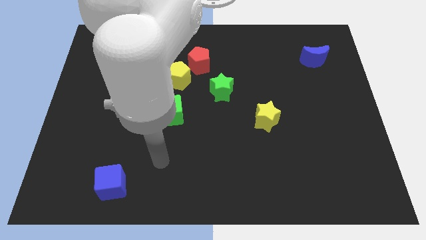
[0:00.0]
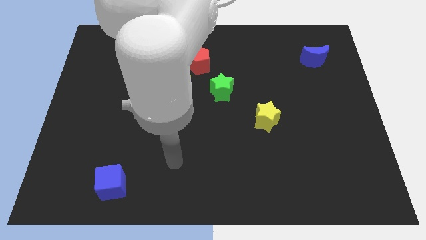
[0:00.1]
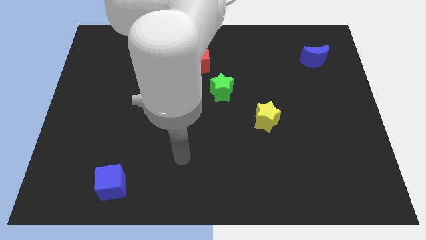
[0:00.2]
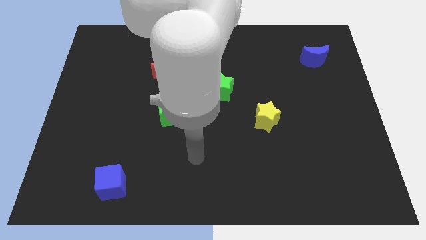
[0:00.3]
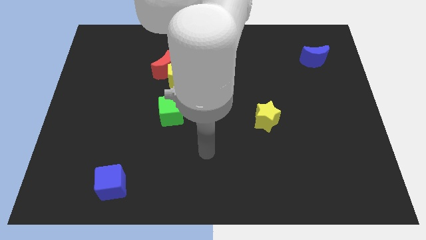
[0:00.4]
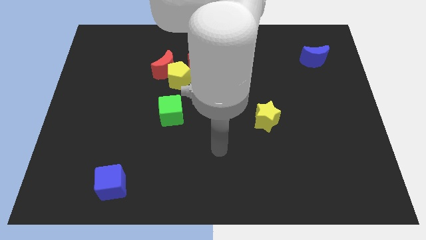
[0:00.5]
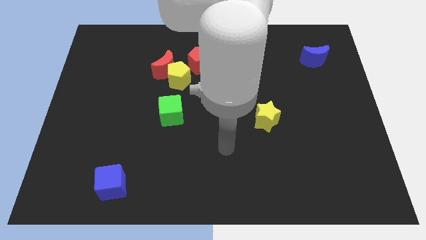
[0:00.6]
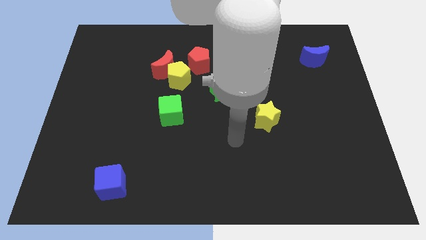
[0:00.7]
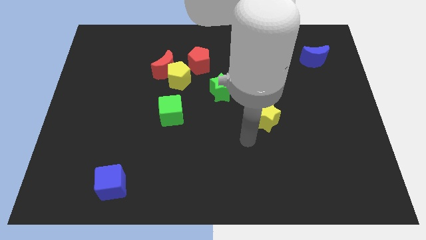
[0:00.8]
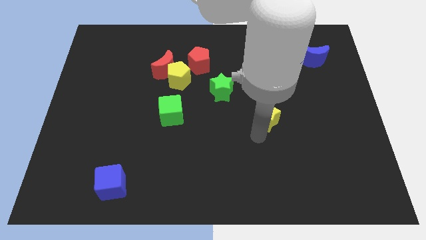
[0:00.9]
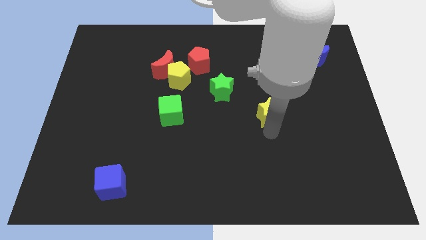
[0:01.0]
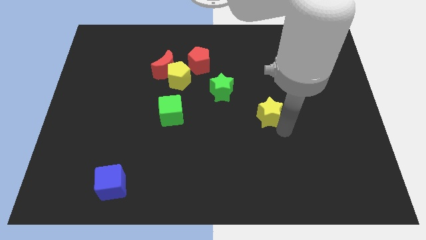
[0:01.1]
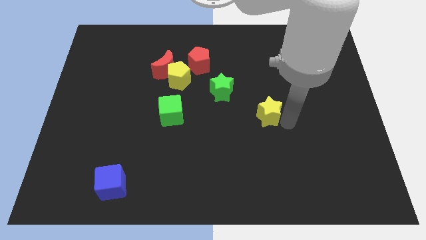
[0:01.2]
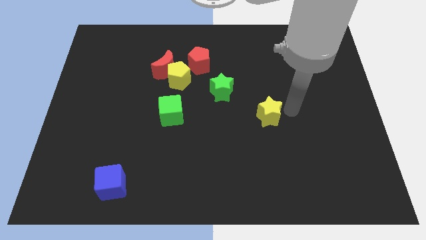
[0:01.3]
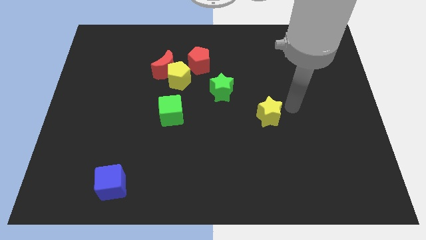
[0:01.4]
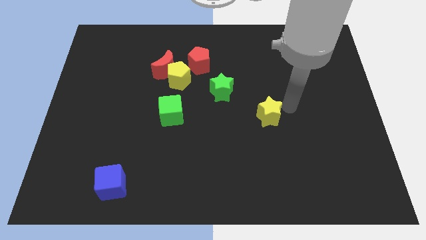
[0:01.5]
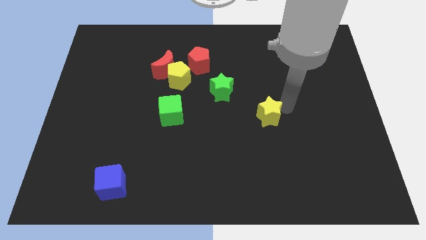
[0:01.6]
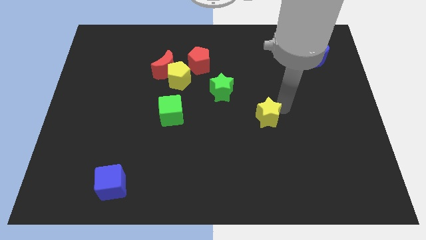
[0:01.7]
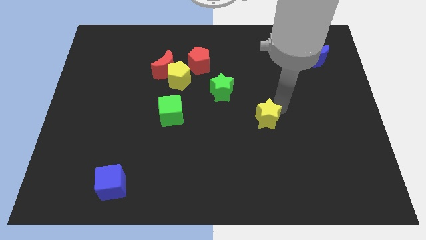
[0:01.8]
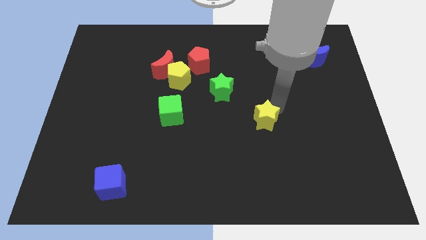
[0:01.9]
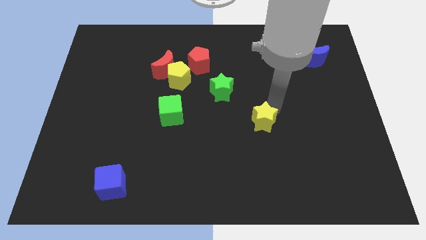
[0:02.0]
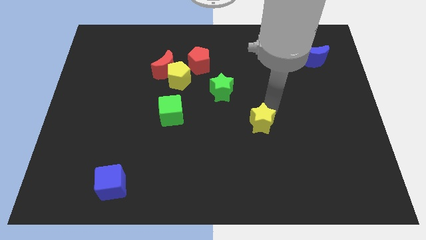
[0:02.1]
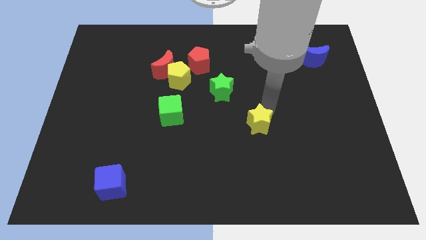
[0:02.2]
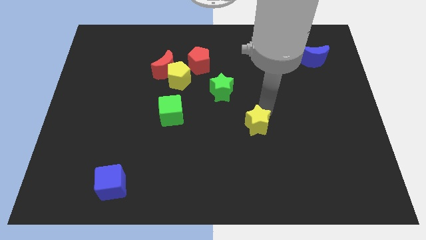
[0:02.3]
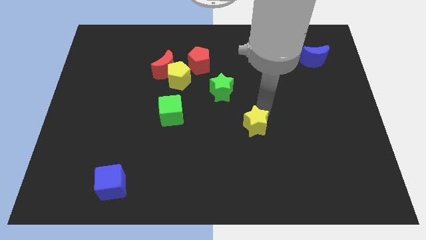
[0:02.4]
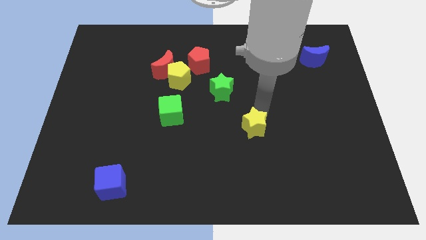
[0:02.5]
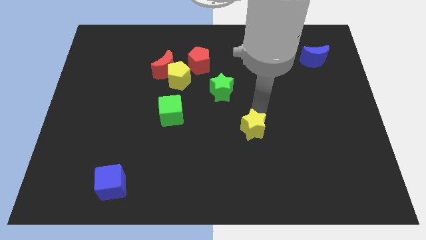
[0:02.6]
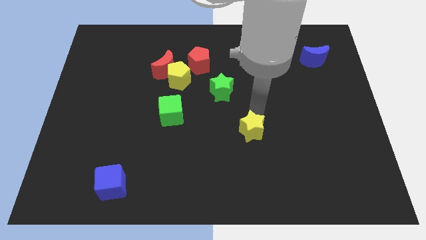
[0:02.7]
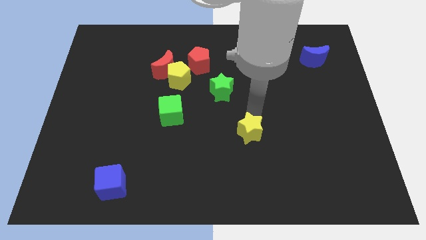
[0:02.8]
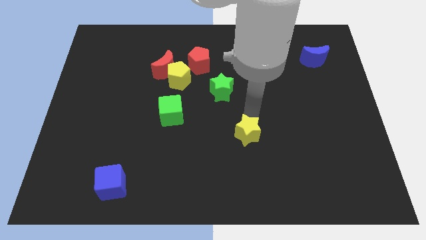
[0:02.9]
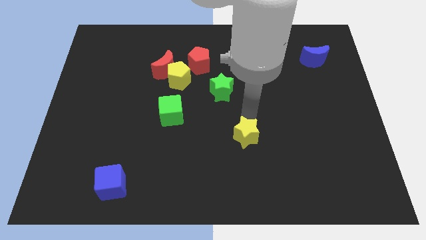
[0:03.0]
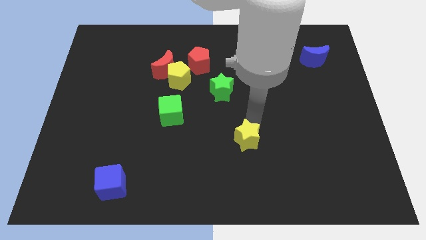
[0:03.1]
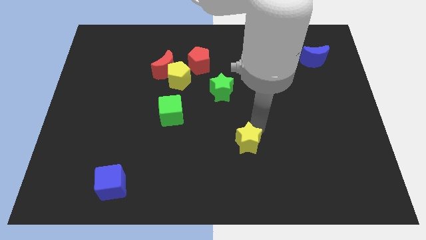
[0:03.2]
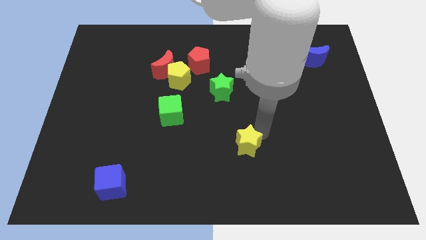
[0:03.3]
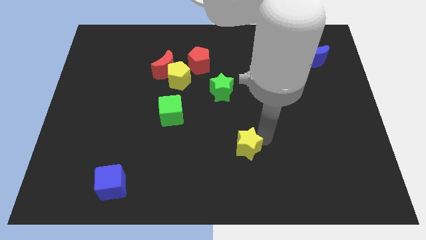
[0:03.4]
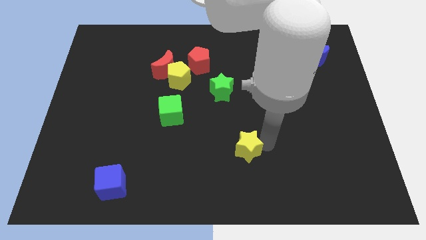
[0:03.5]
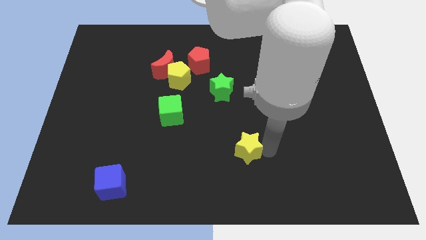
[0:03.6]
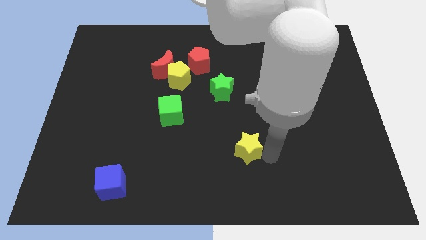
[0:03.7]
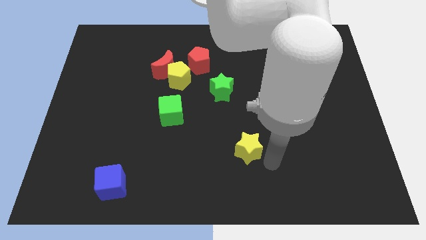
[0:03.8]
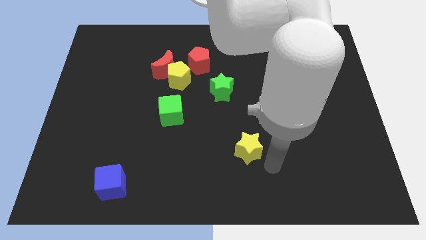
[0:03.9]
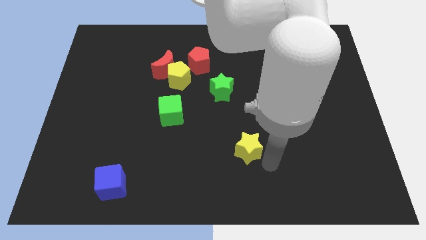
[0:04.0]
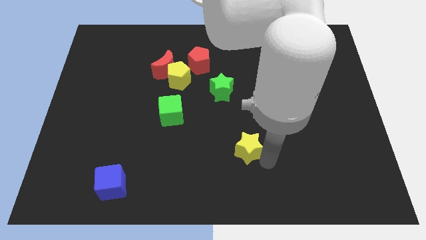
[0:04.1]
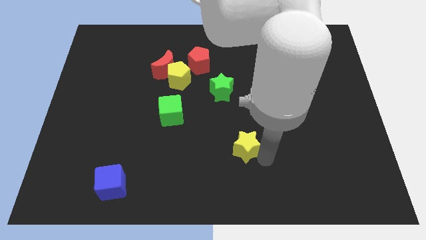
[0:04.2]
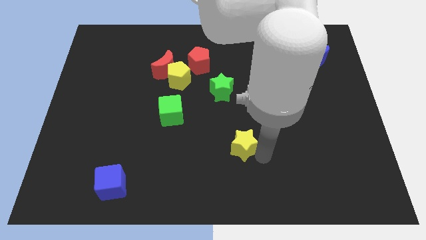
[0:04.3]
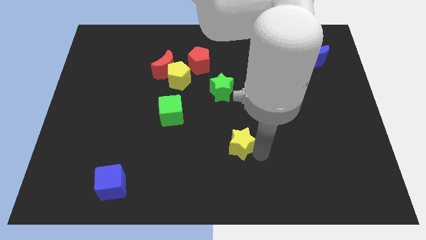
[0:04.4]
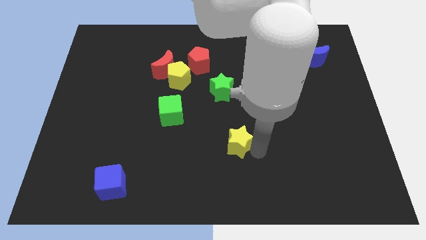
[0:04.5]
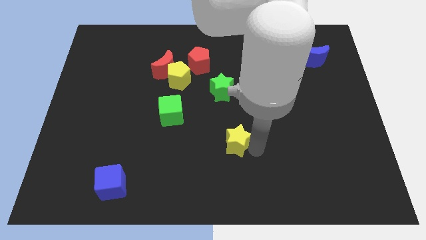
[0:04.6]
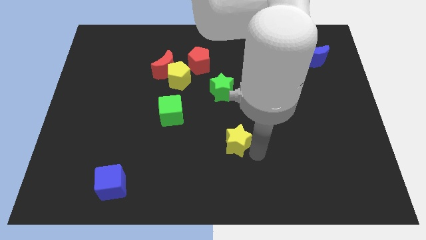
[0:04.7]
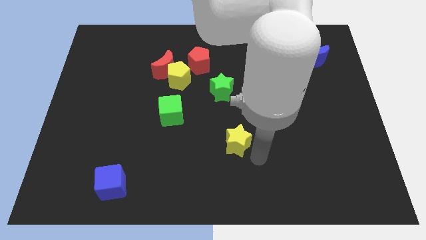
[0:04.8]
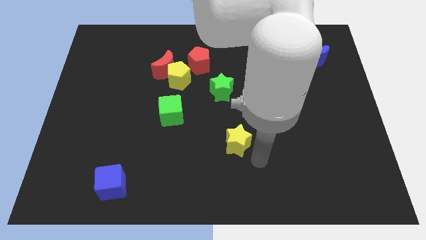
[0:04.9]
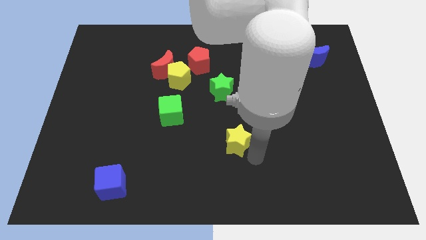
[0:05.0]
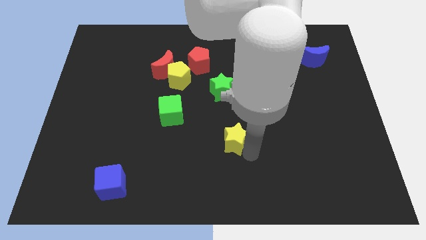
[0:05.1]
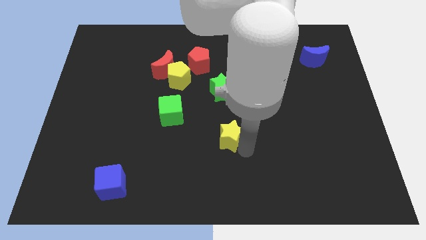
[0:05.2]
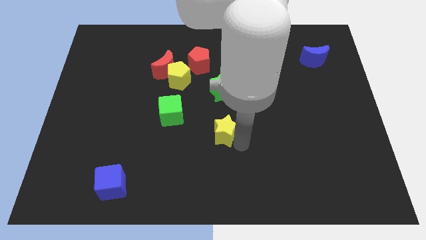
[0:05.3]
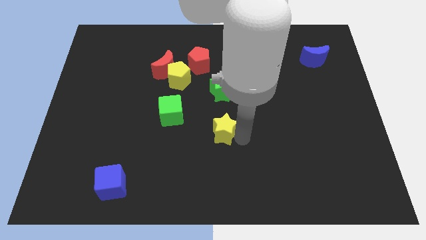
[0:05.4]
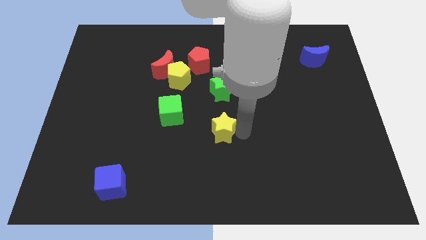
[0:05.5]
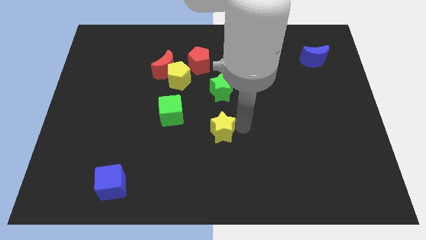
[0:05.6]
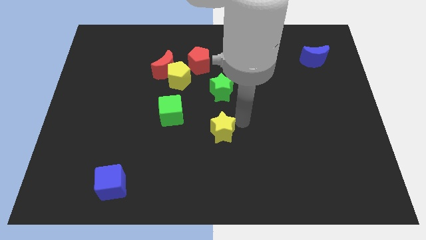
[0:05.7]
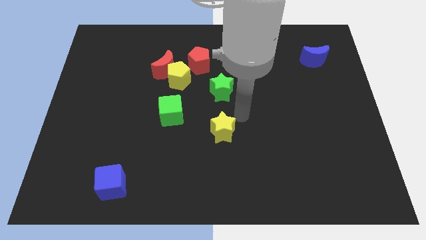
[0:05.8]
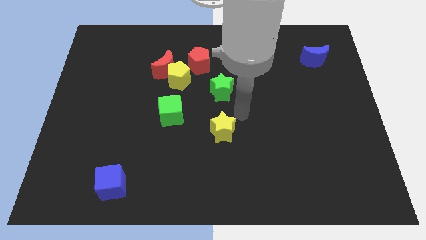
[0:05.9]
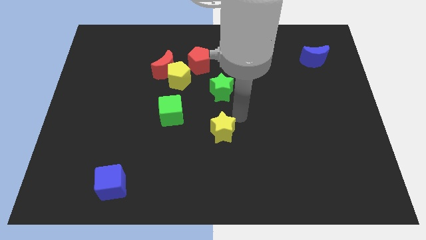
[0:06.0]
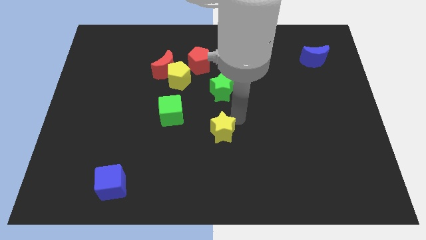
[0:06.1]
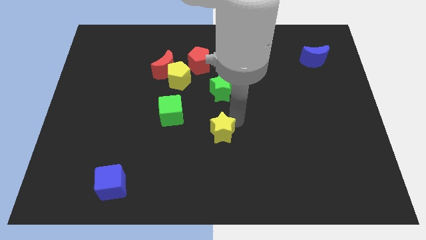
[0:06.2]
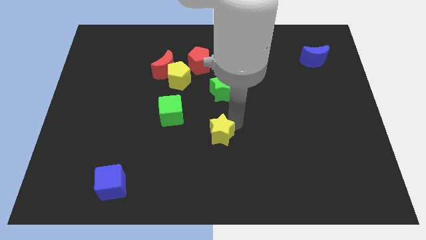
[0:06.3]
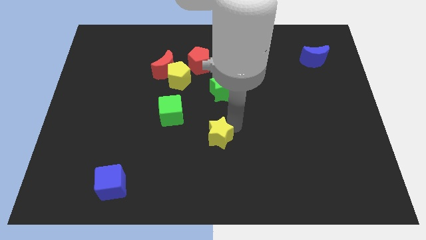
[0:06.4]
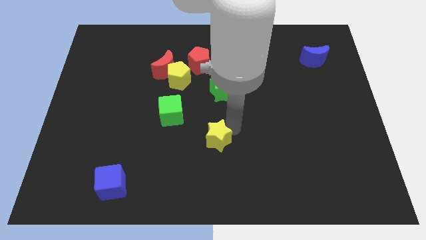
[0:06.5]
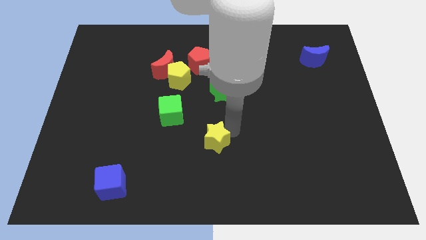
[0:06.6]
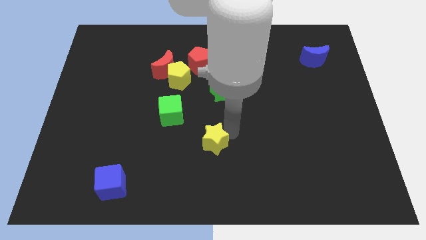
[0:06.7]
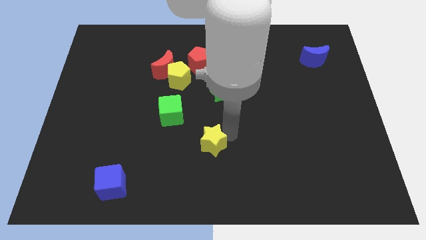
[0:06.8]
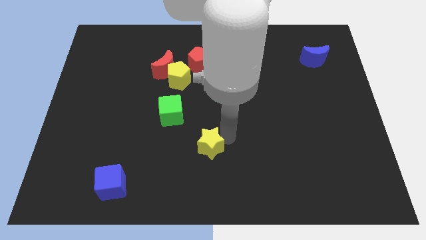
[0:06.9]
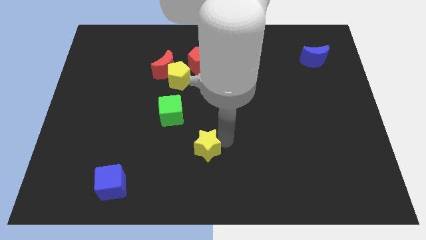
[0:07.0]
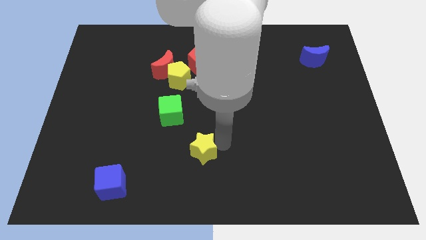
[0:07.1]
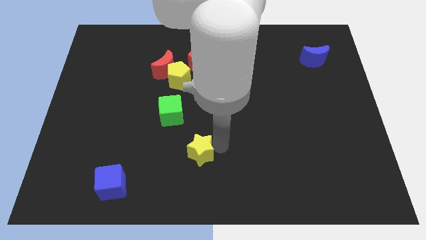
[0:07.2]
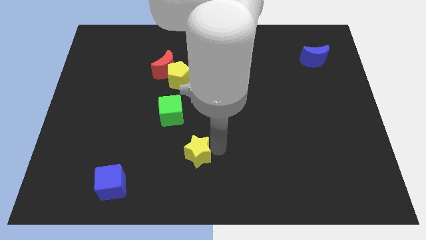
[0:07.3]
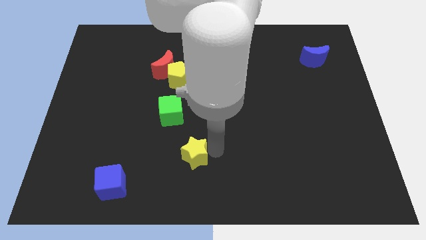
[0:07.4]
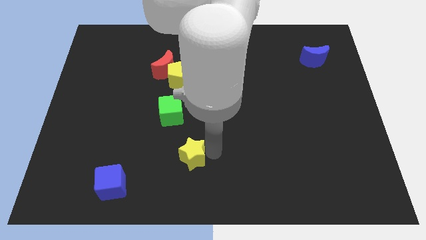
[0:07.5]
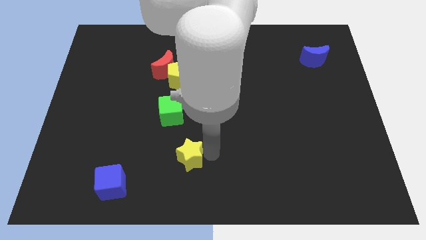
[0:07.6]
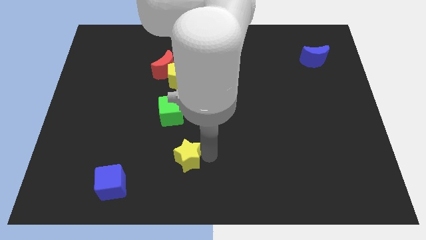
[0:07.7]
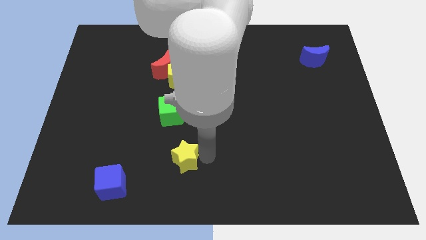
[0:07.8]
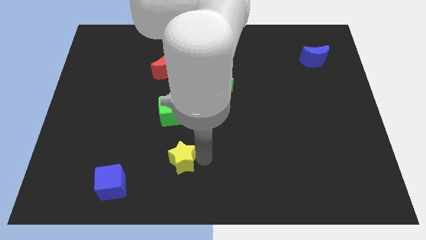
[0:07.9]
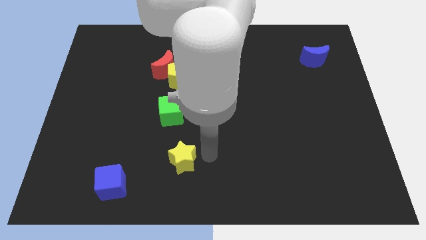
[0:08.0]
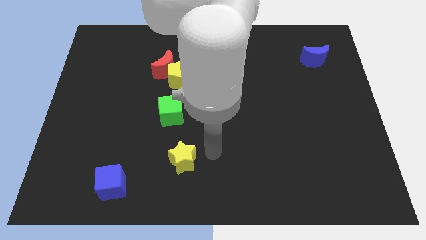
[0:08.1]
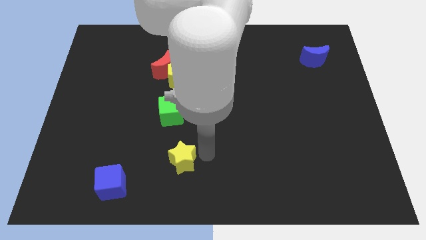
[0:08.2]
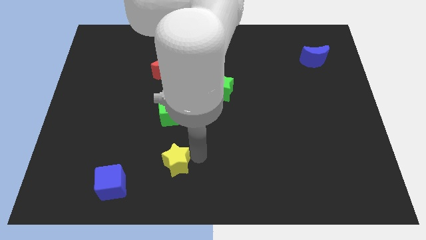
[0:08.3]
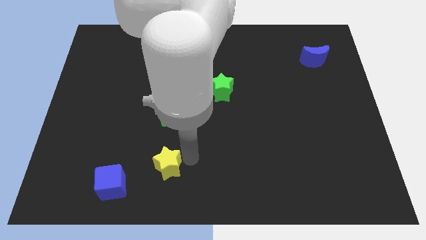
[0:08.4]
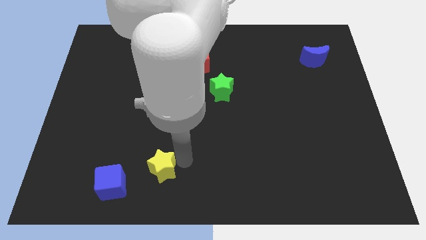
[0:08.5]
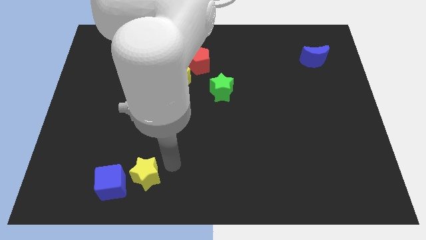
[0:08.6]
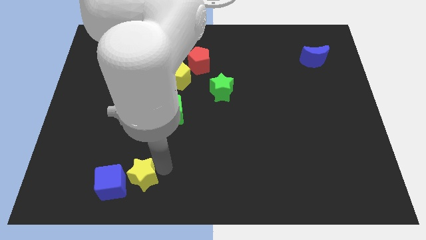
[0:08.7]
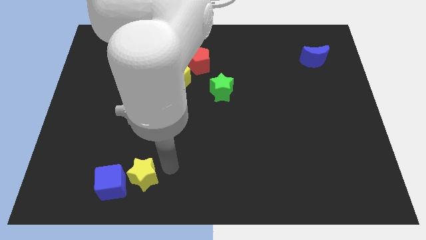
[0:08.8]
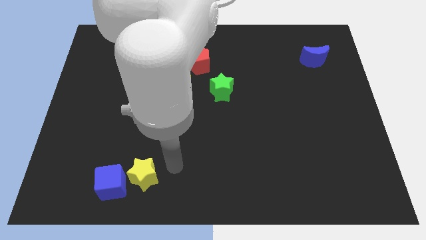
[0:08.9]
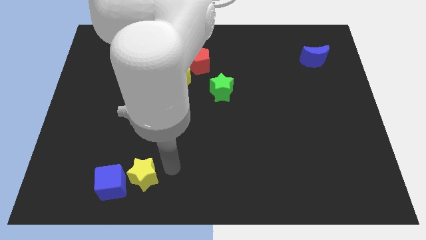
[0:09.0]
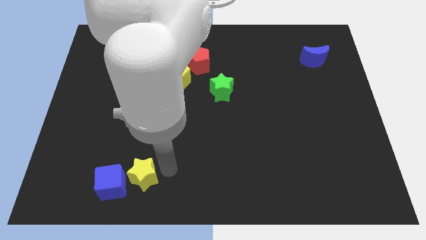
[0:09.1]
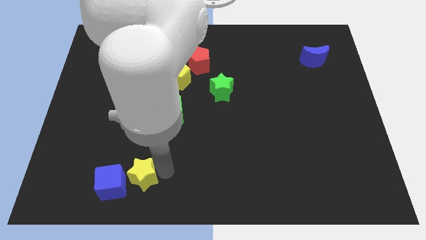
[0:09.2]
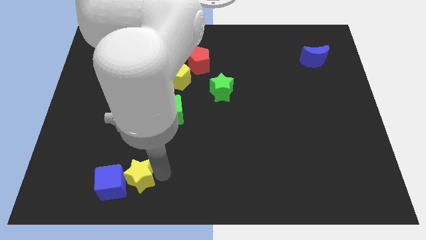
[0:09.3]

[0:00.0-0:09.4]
move the yellow star towards the blue cube
